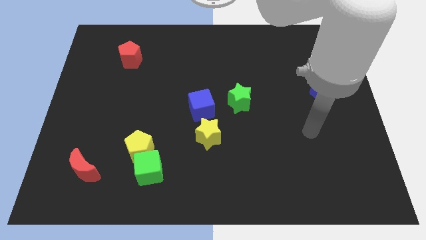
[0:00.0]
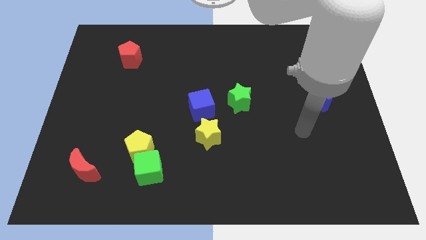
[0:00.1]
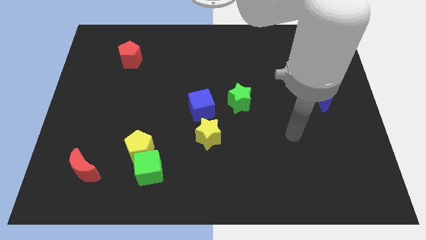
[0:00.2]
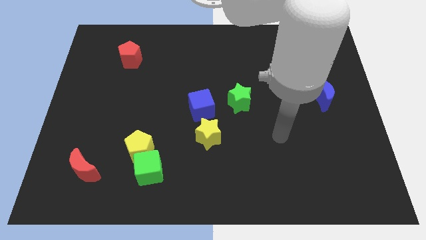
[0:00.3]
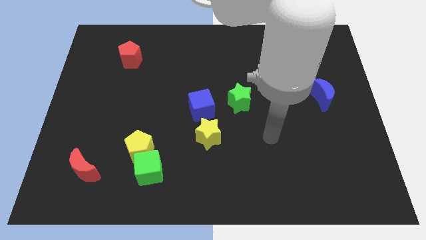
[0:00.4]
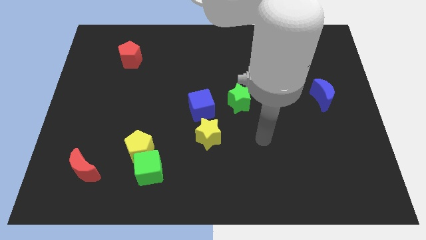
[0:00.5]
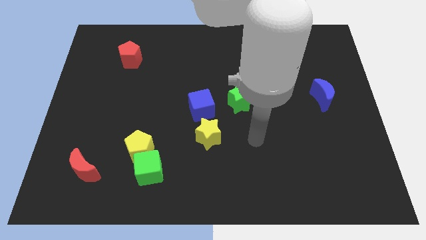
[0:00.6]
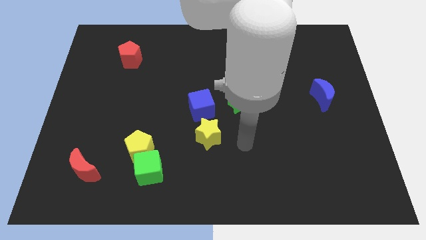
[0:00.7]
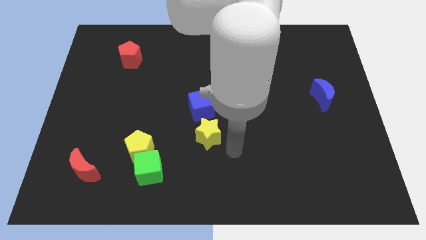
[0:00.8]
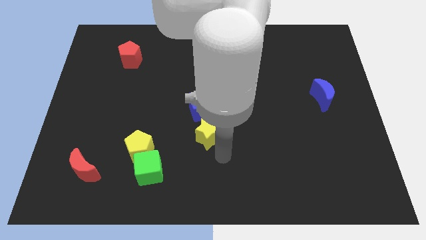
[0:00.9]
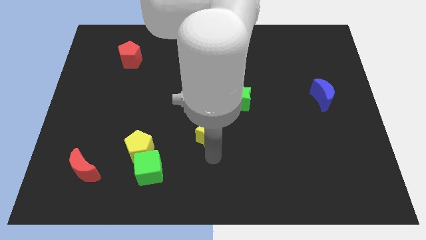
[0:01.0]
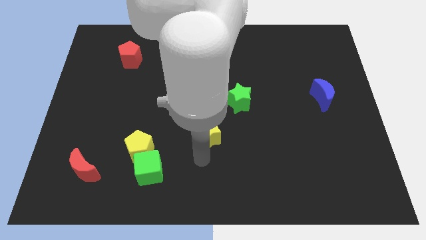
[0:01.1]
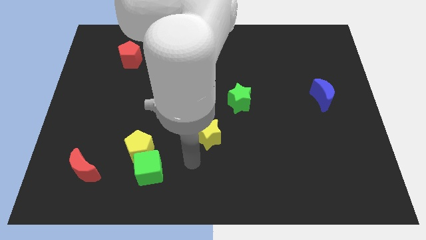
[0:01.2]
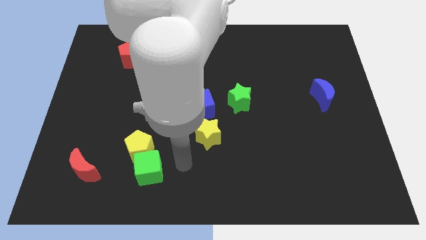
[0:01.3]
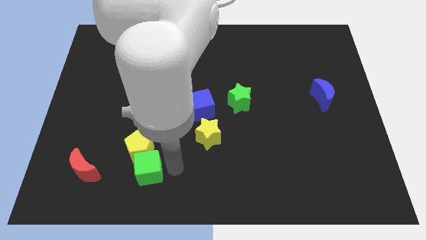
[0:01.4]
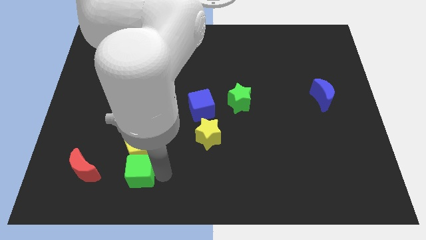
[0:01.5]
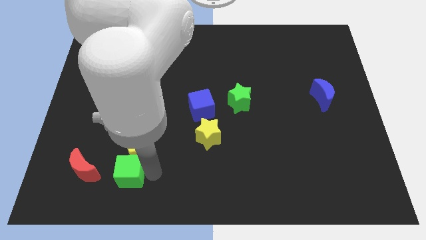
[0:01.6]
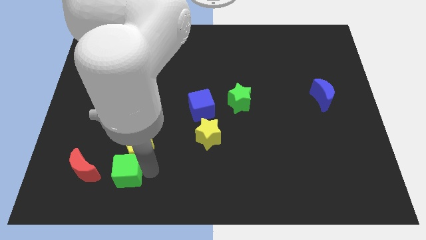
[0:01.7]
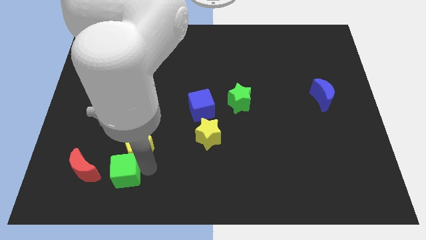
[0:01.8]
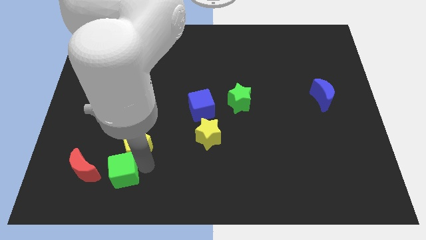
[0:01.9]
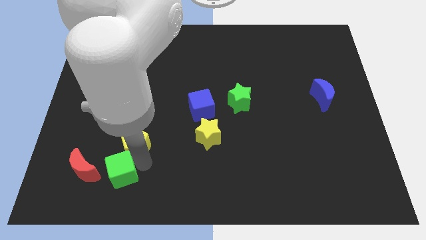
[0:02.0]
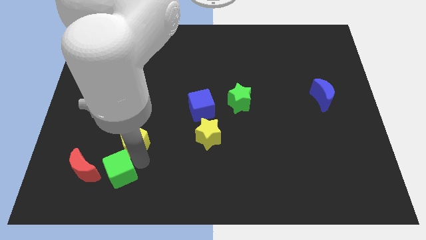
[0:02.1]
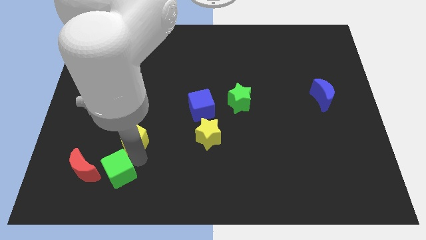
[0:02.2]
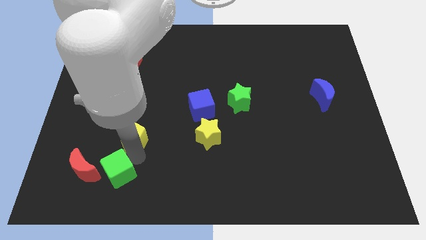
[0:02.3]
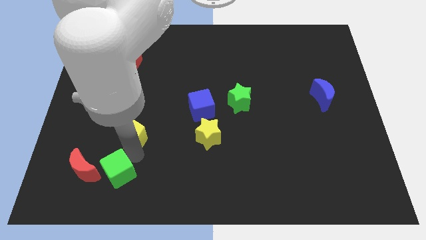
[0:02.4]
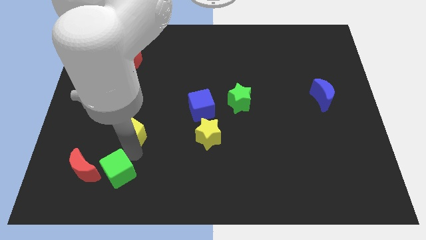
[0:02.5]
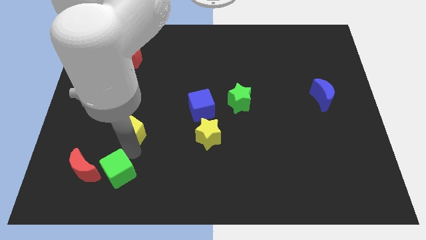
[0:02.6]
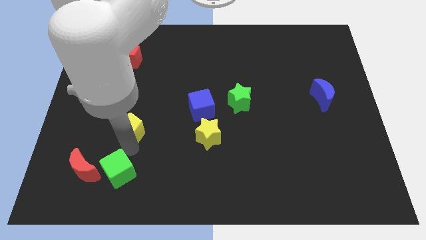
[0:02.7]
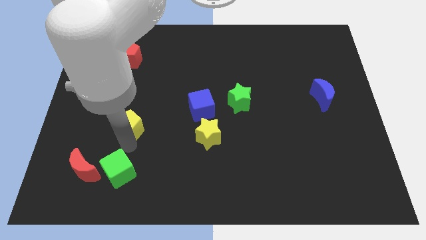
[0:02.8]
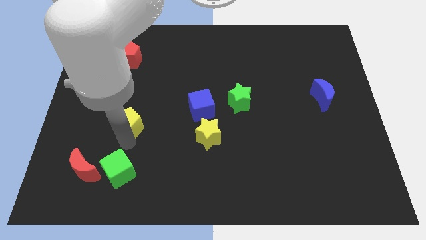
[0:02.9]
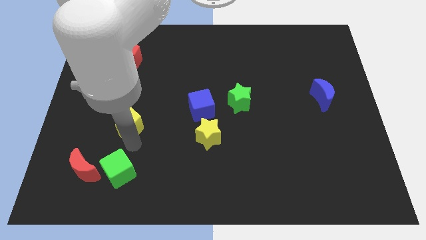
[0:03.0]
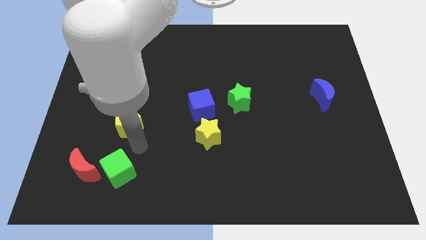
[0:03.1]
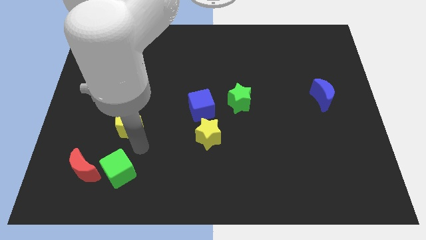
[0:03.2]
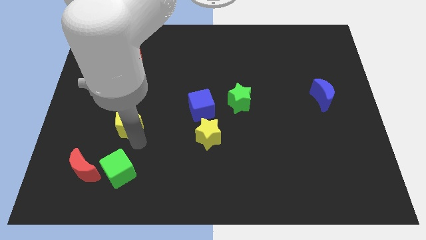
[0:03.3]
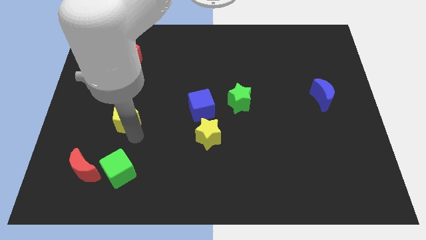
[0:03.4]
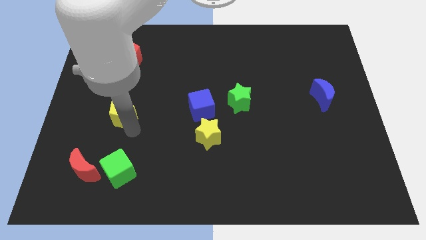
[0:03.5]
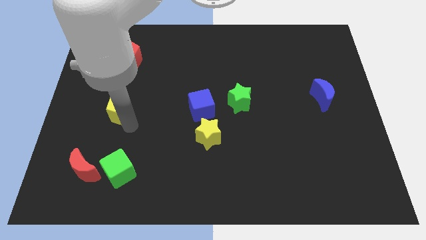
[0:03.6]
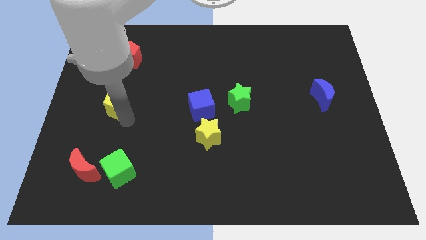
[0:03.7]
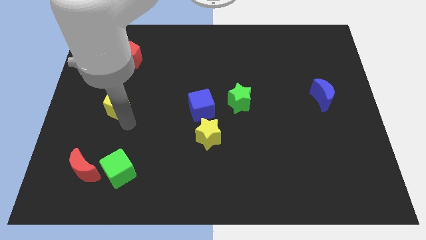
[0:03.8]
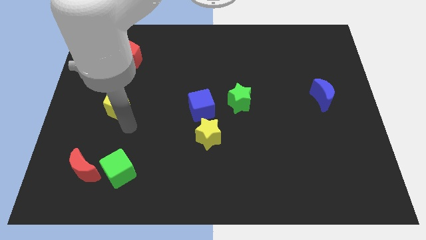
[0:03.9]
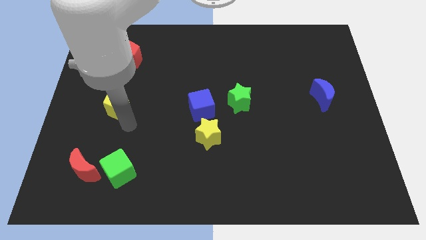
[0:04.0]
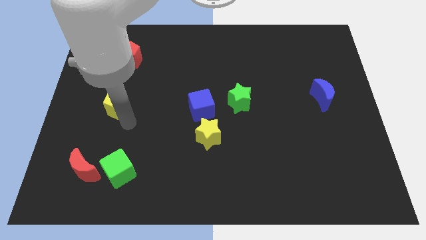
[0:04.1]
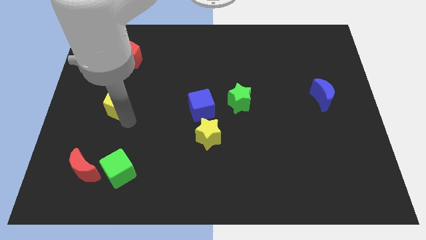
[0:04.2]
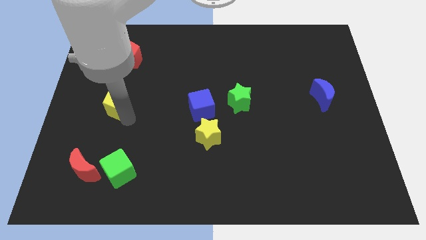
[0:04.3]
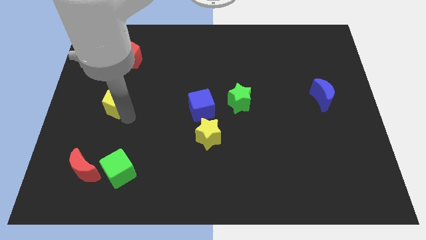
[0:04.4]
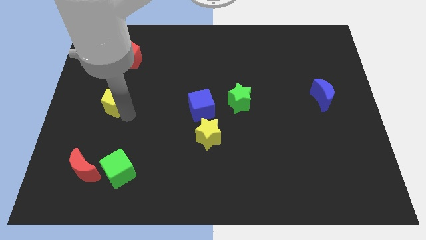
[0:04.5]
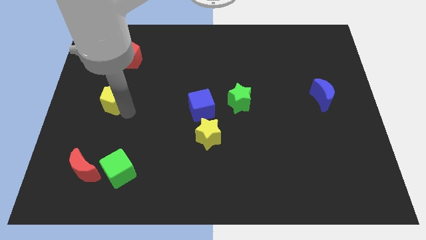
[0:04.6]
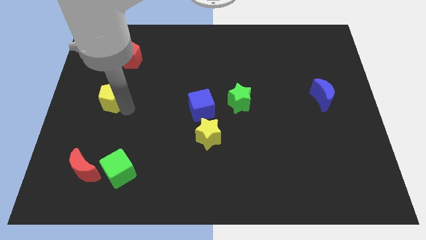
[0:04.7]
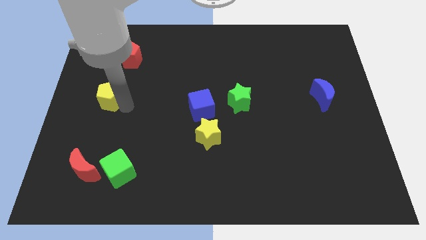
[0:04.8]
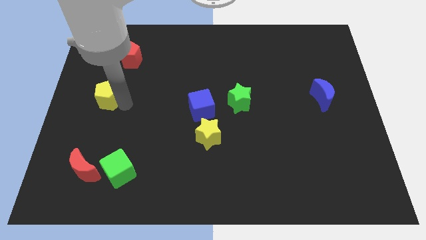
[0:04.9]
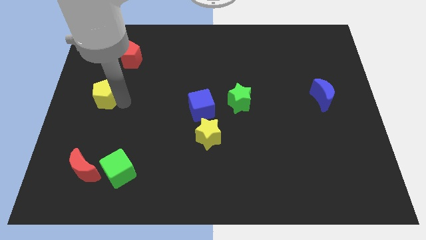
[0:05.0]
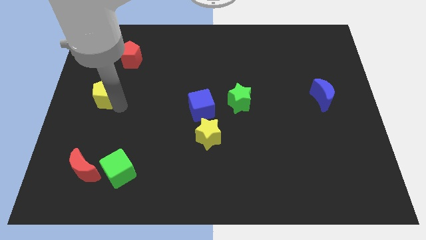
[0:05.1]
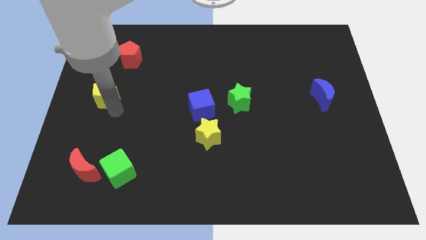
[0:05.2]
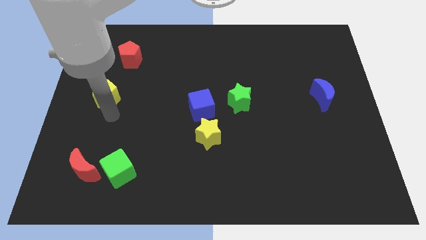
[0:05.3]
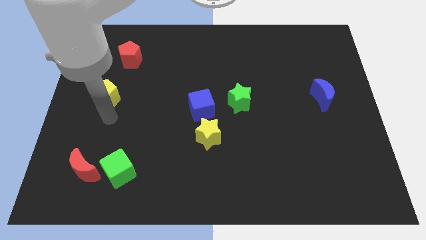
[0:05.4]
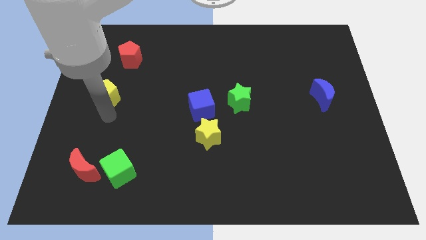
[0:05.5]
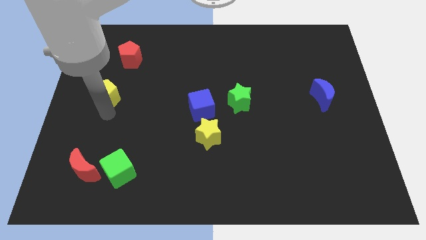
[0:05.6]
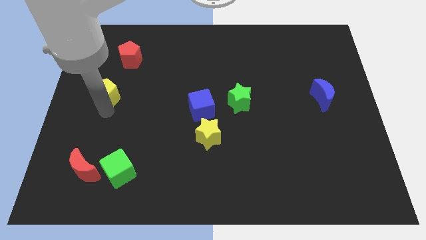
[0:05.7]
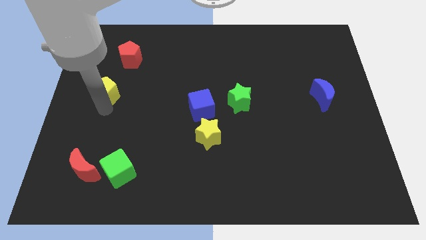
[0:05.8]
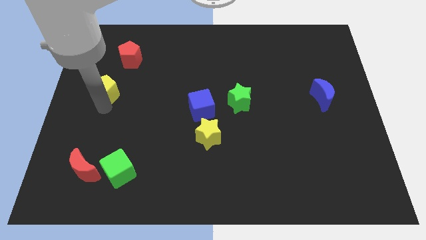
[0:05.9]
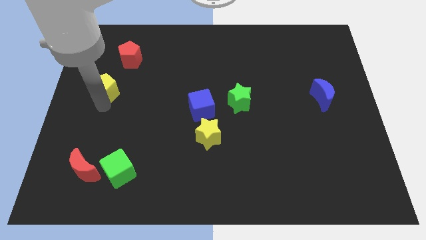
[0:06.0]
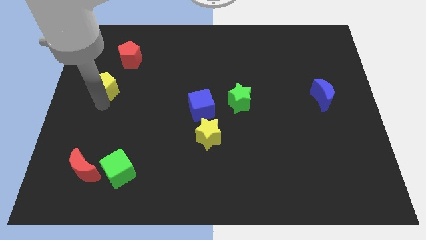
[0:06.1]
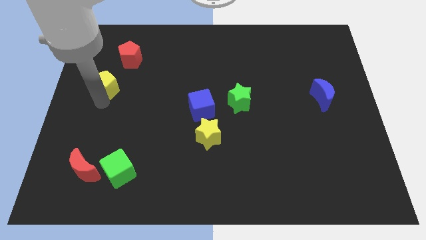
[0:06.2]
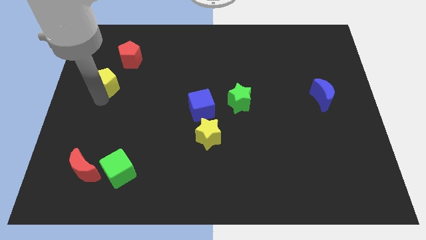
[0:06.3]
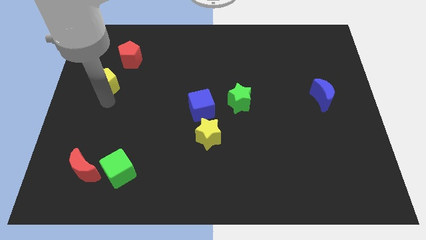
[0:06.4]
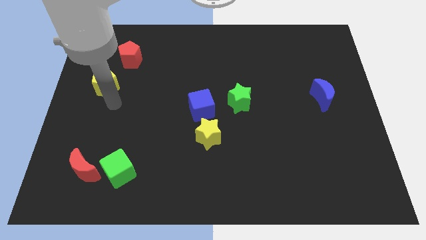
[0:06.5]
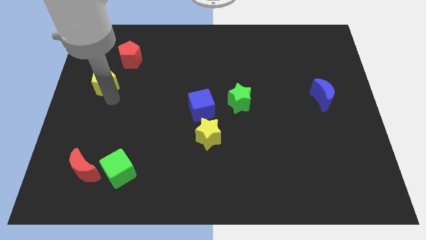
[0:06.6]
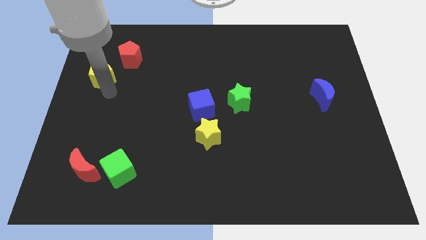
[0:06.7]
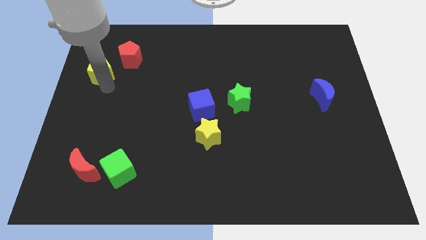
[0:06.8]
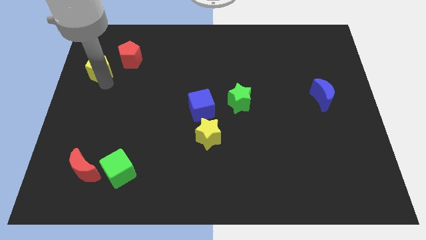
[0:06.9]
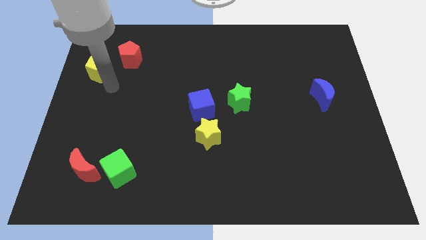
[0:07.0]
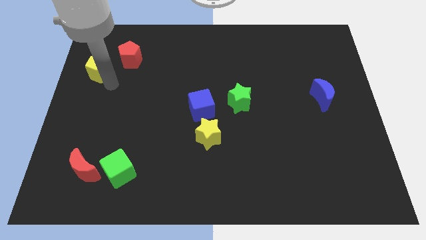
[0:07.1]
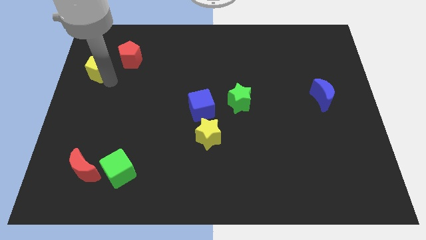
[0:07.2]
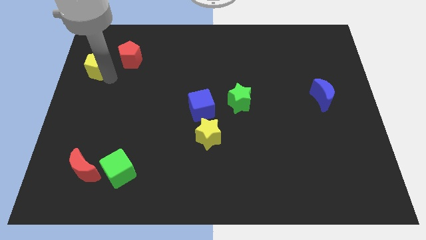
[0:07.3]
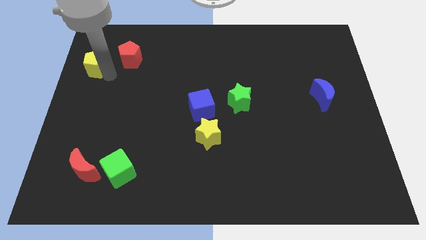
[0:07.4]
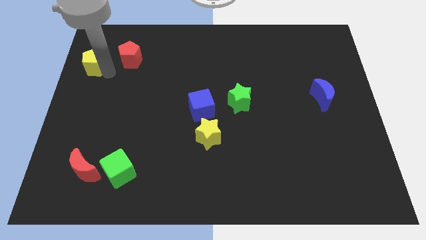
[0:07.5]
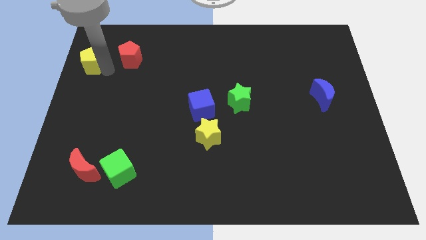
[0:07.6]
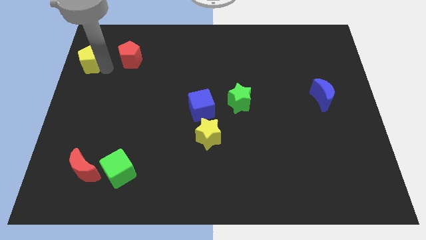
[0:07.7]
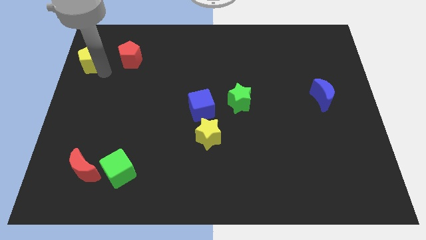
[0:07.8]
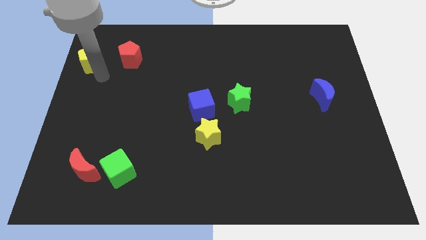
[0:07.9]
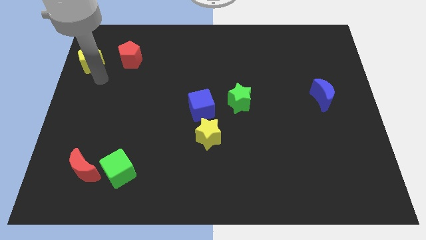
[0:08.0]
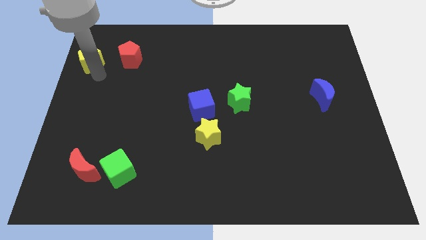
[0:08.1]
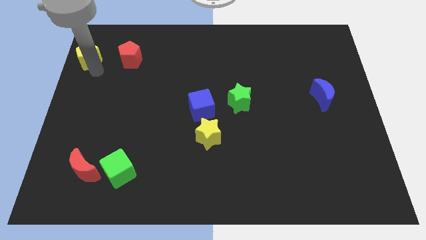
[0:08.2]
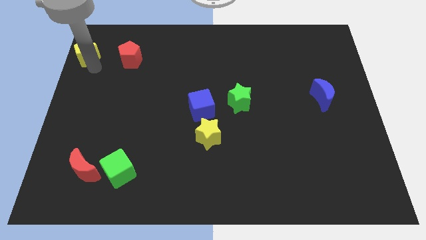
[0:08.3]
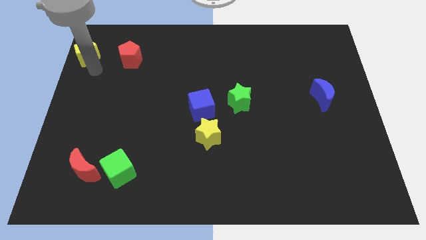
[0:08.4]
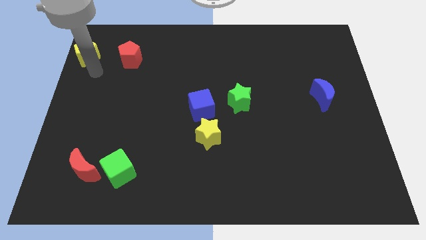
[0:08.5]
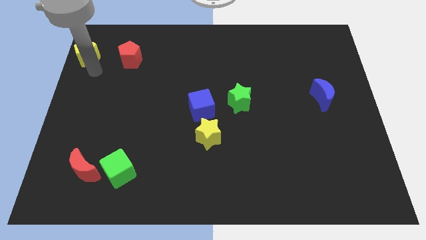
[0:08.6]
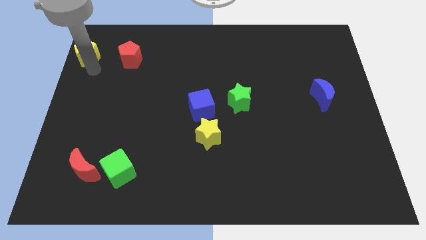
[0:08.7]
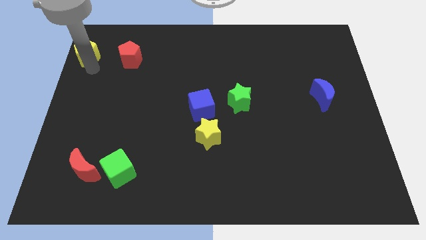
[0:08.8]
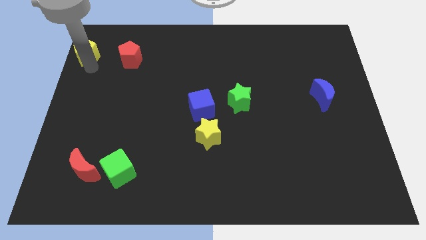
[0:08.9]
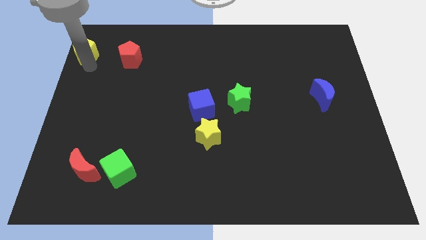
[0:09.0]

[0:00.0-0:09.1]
slide the yellow pentagon to the top left
